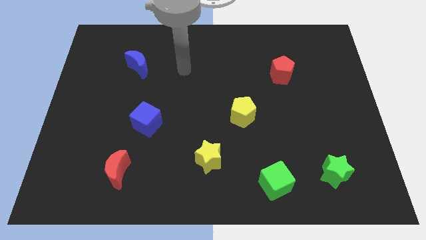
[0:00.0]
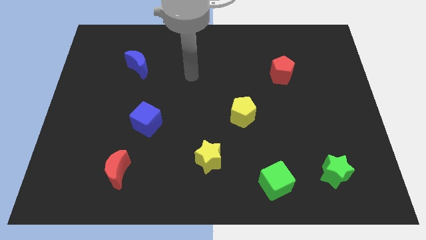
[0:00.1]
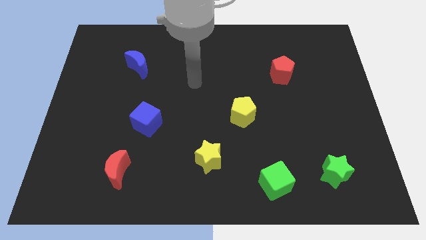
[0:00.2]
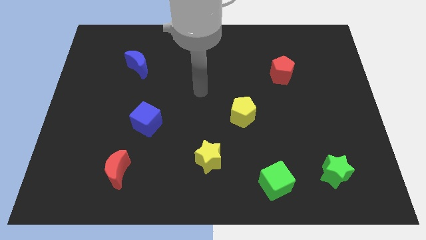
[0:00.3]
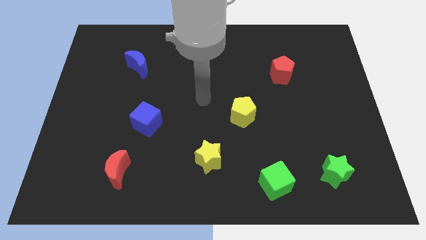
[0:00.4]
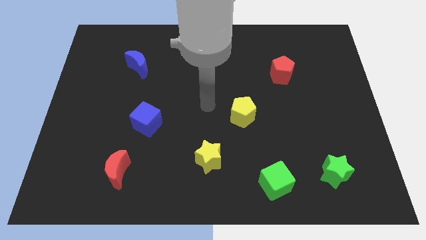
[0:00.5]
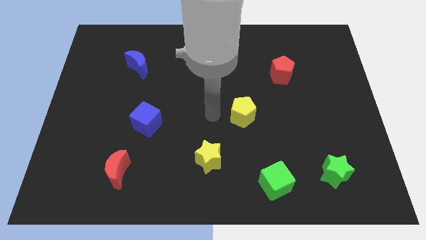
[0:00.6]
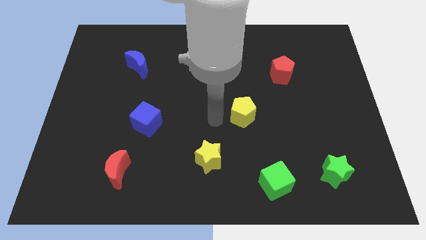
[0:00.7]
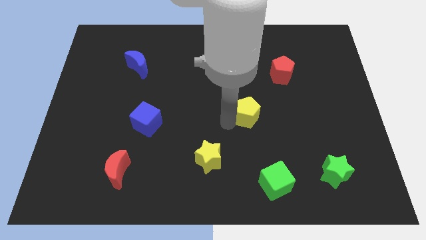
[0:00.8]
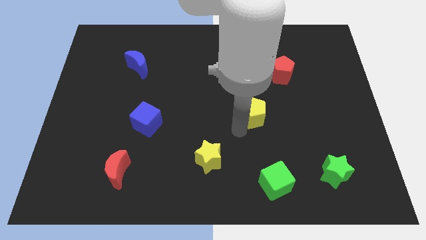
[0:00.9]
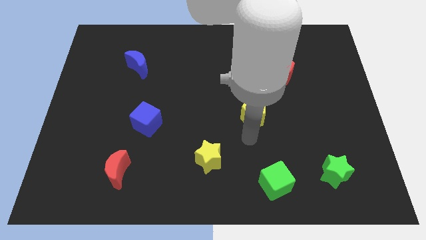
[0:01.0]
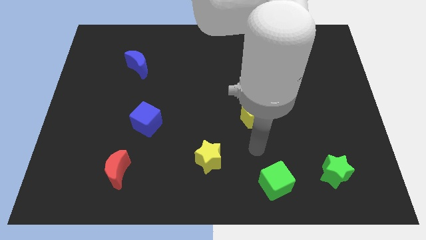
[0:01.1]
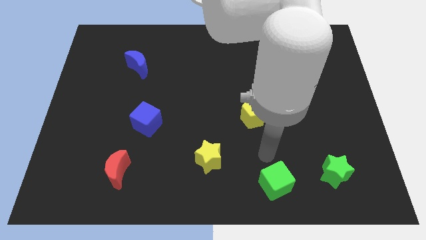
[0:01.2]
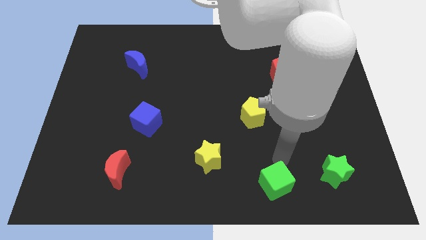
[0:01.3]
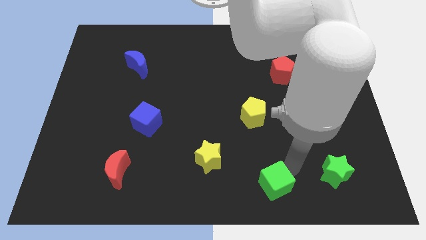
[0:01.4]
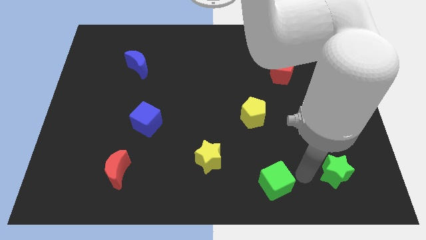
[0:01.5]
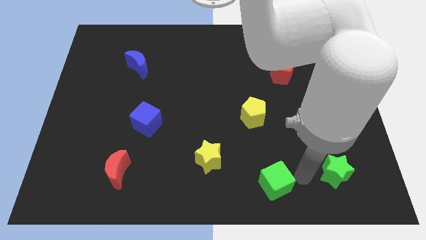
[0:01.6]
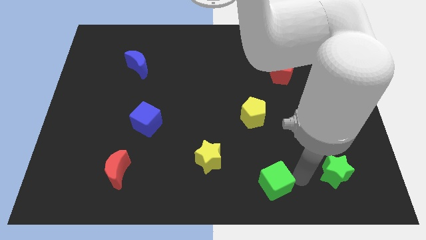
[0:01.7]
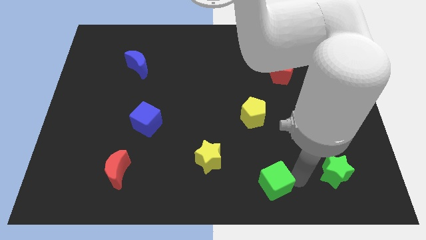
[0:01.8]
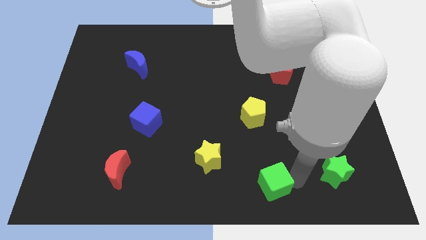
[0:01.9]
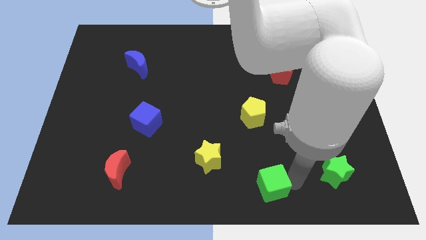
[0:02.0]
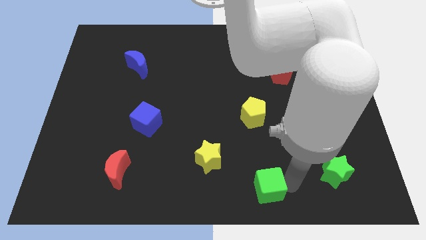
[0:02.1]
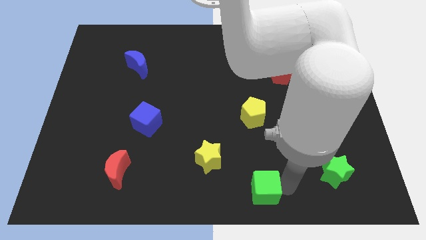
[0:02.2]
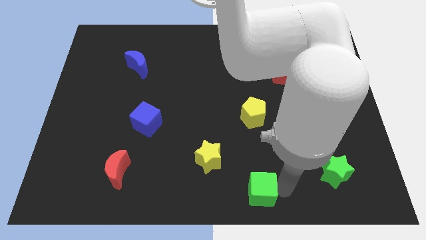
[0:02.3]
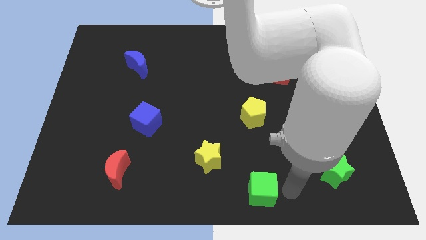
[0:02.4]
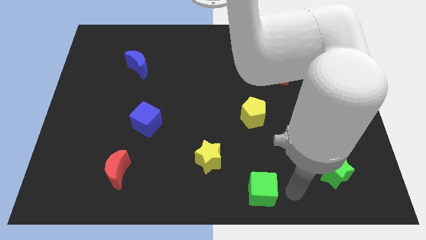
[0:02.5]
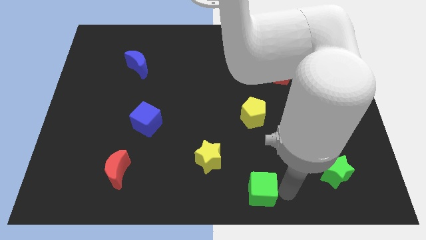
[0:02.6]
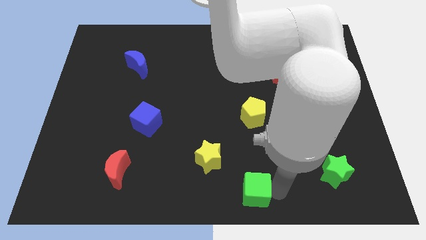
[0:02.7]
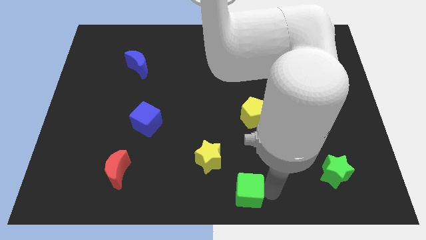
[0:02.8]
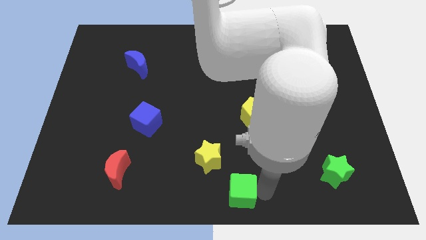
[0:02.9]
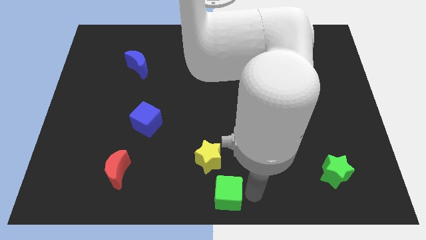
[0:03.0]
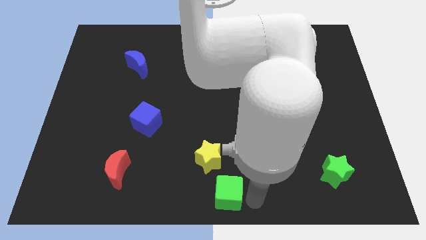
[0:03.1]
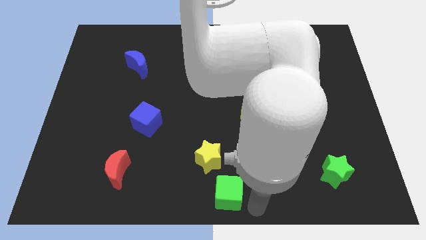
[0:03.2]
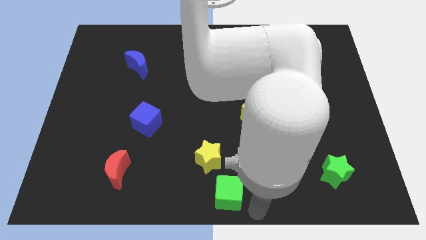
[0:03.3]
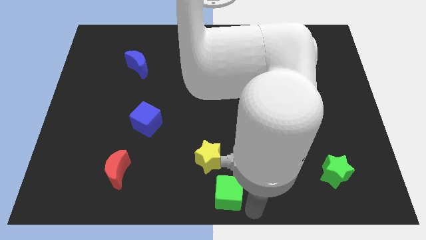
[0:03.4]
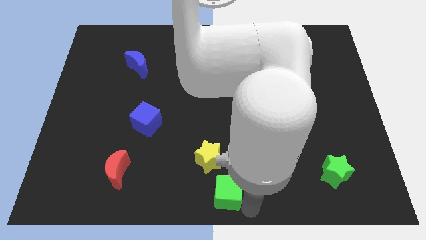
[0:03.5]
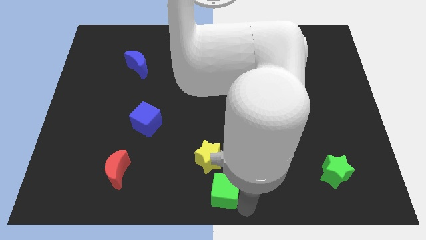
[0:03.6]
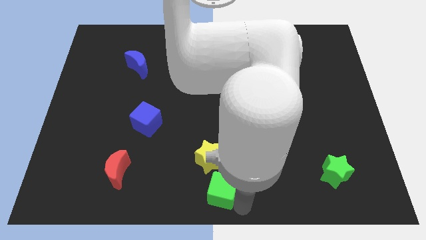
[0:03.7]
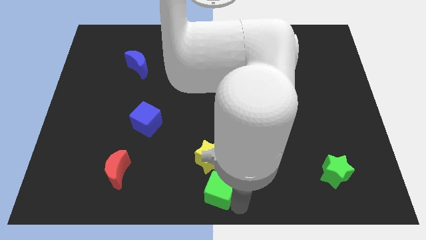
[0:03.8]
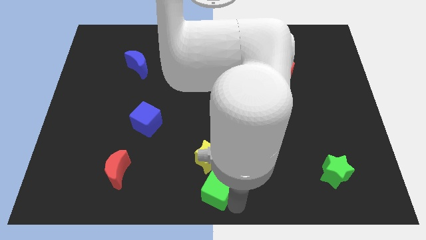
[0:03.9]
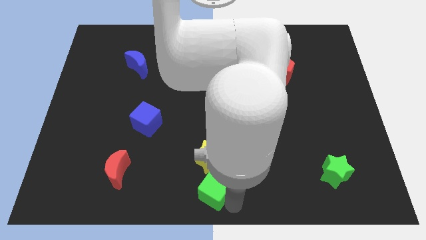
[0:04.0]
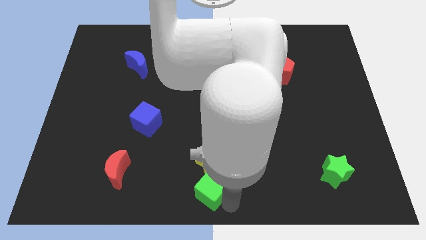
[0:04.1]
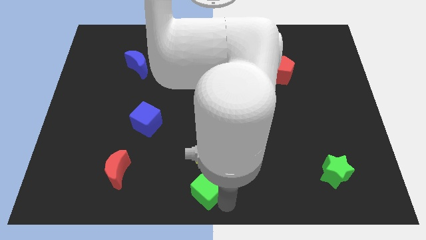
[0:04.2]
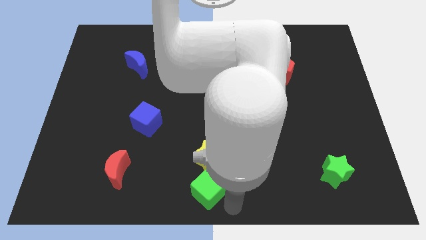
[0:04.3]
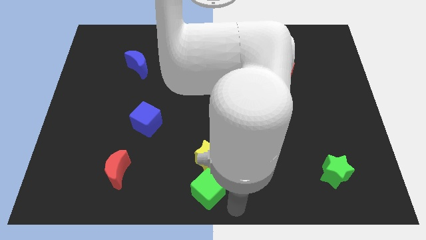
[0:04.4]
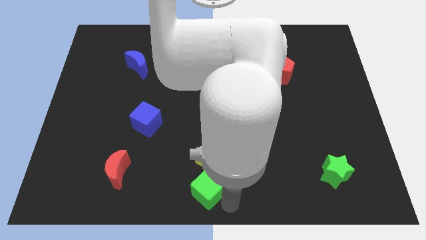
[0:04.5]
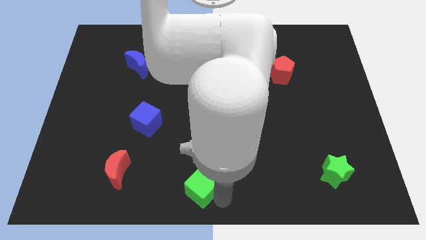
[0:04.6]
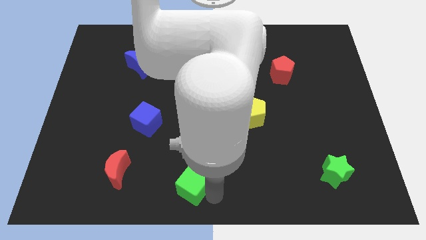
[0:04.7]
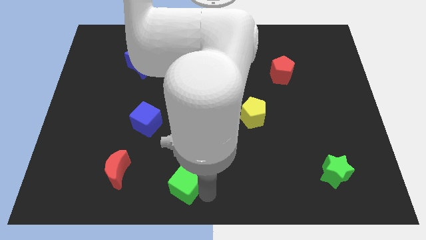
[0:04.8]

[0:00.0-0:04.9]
slide the green cube right of the red moon

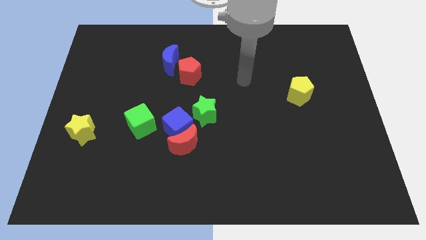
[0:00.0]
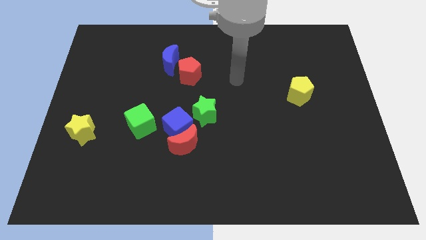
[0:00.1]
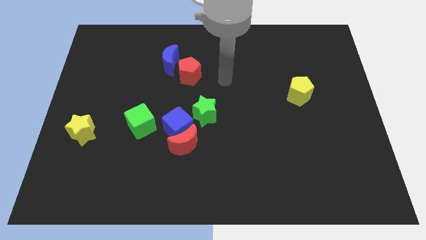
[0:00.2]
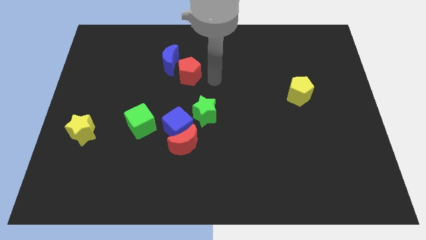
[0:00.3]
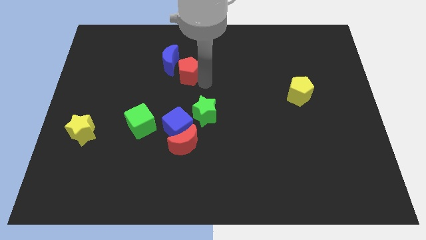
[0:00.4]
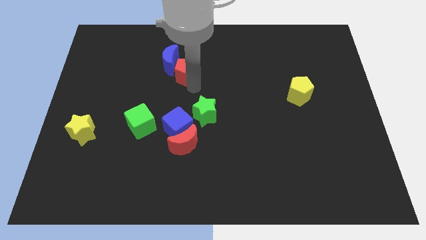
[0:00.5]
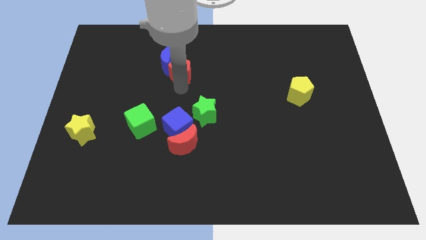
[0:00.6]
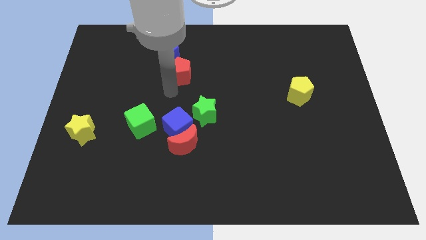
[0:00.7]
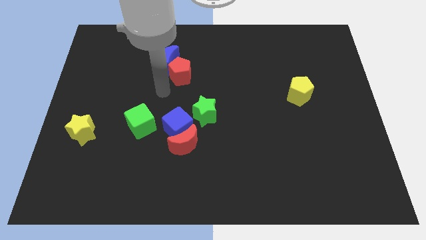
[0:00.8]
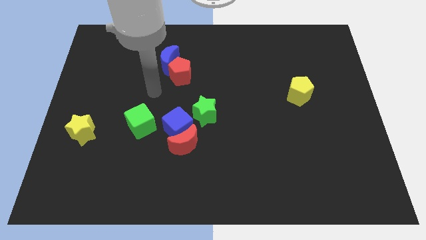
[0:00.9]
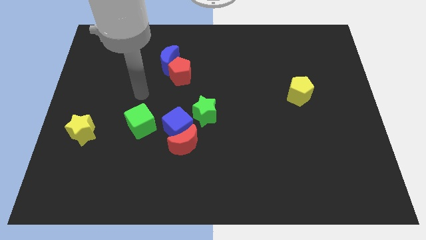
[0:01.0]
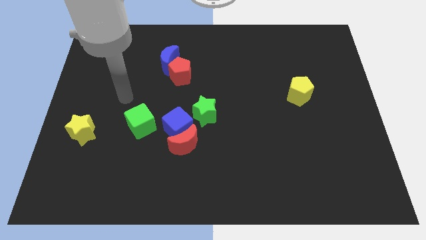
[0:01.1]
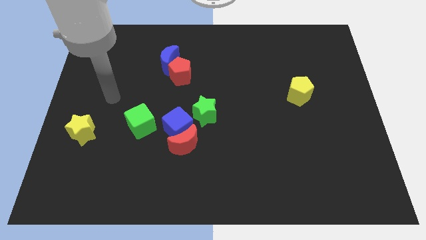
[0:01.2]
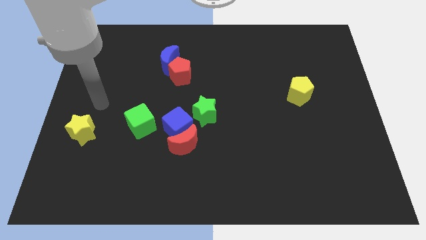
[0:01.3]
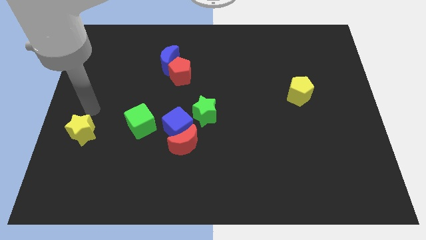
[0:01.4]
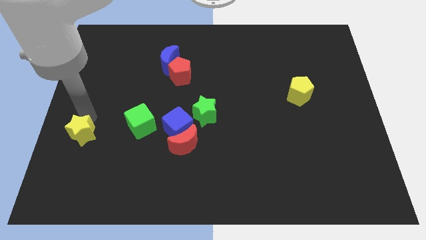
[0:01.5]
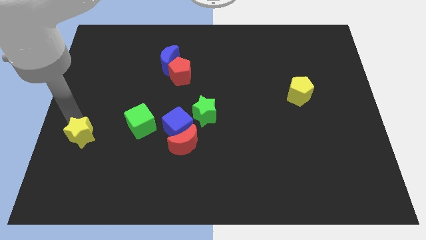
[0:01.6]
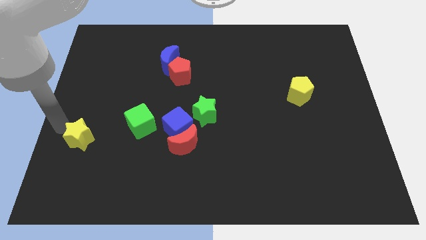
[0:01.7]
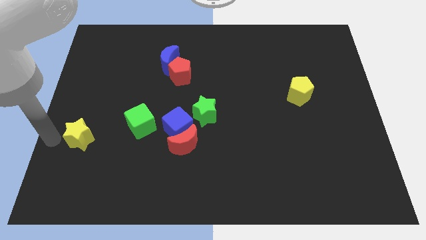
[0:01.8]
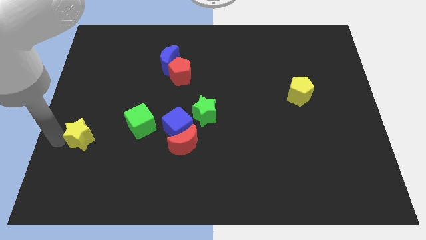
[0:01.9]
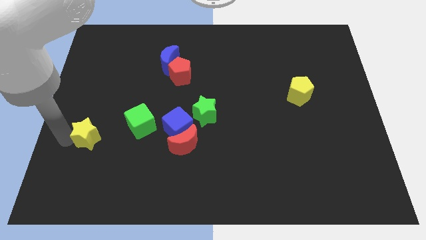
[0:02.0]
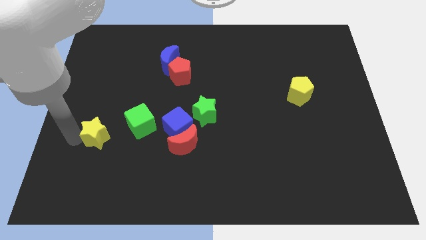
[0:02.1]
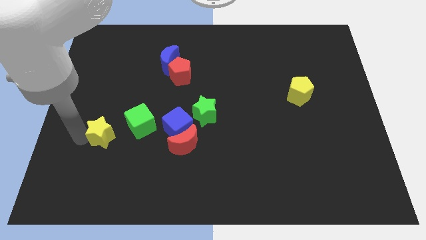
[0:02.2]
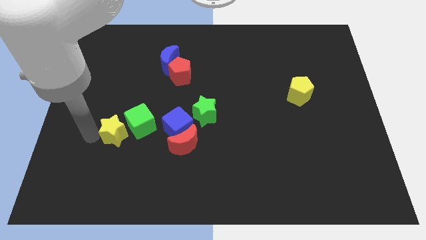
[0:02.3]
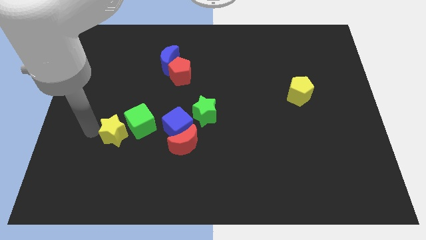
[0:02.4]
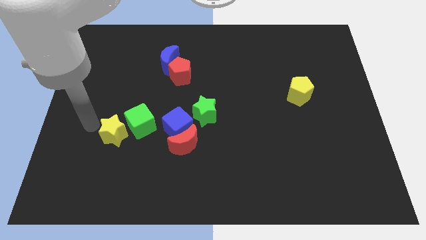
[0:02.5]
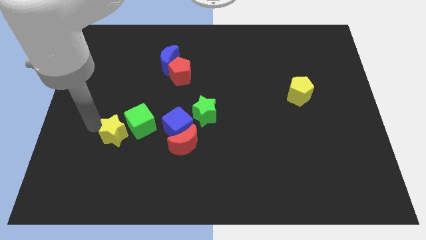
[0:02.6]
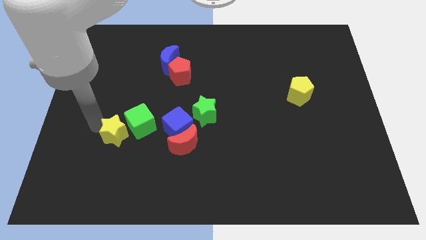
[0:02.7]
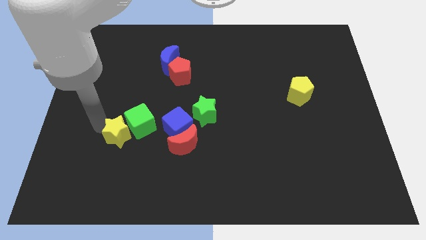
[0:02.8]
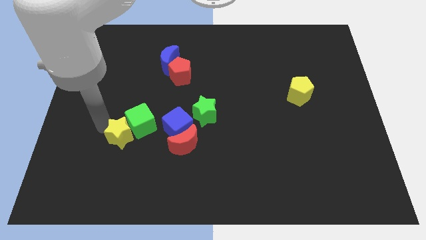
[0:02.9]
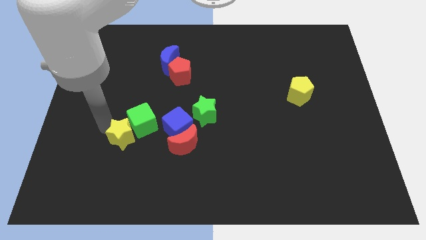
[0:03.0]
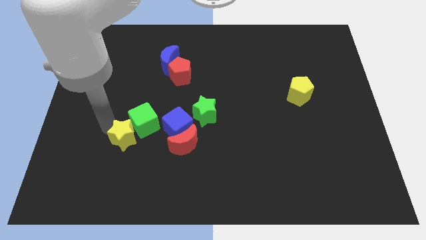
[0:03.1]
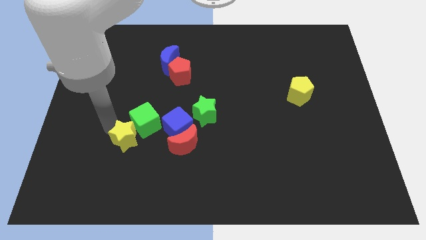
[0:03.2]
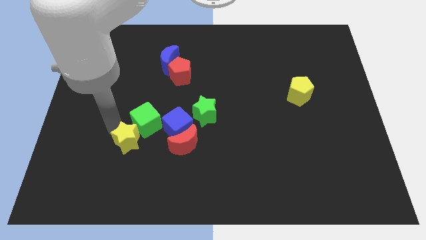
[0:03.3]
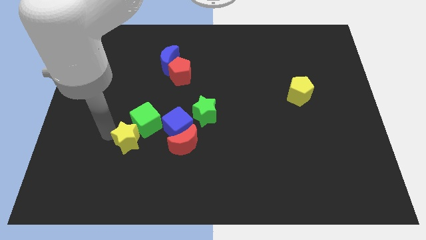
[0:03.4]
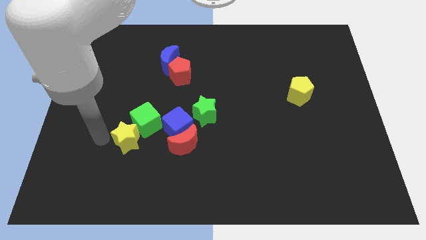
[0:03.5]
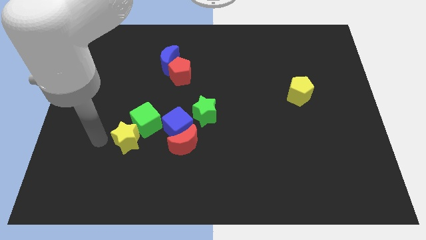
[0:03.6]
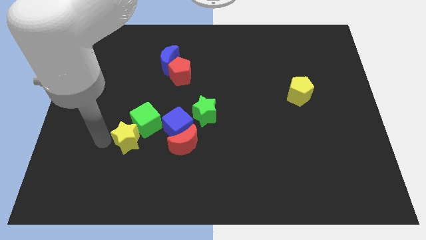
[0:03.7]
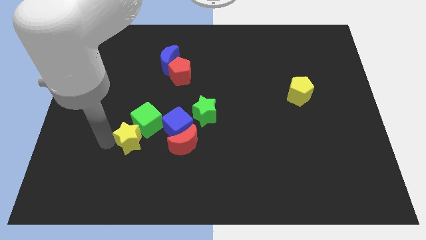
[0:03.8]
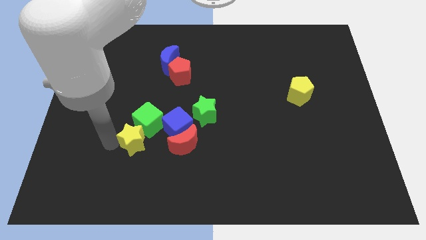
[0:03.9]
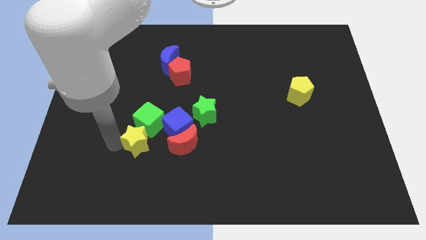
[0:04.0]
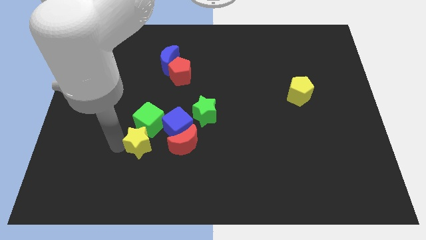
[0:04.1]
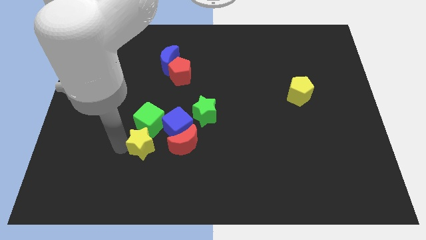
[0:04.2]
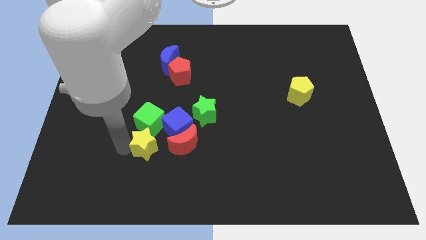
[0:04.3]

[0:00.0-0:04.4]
put the yellow star diagonally down and to the right of the green cube
